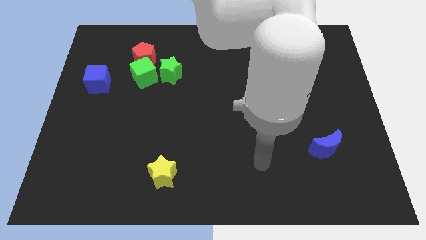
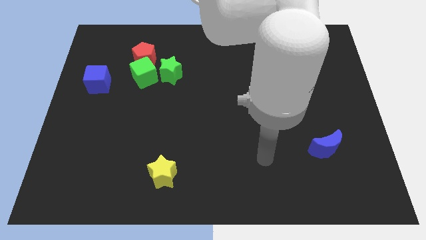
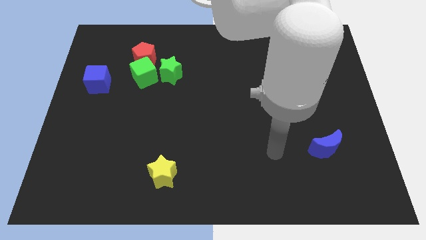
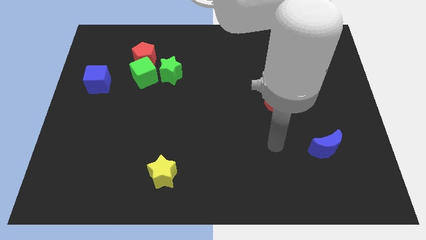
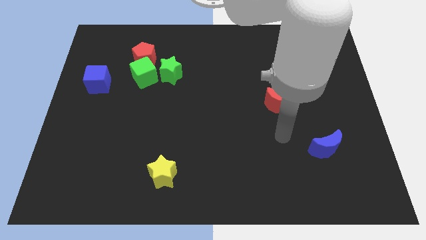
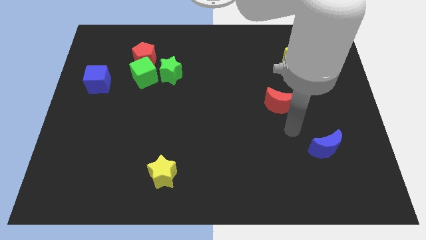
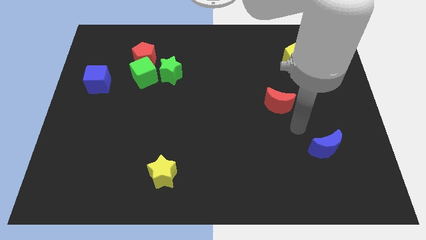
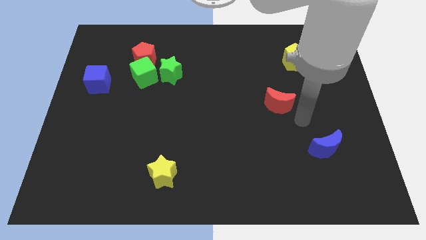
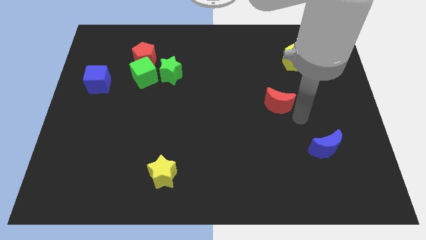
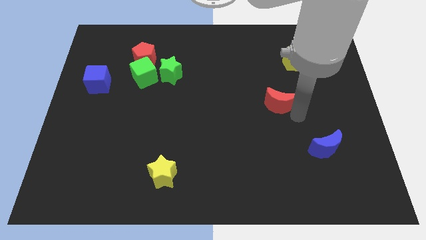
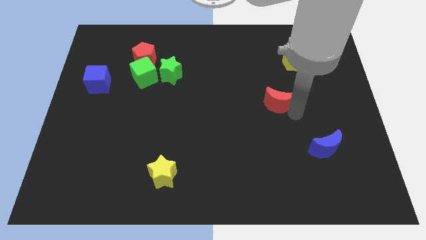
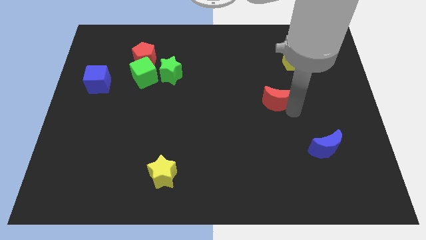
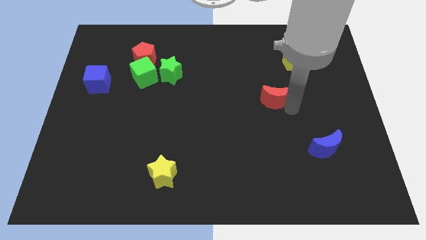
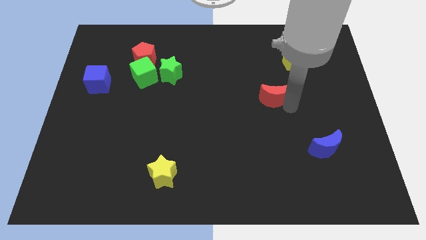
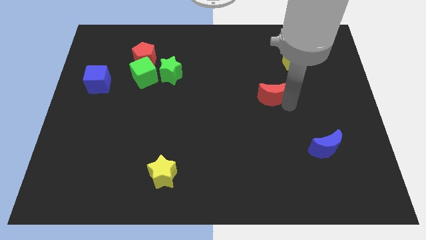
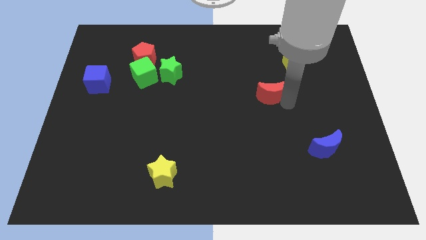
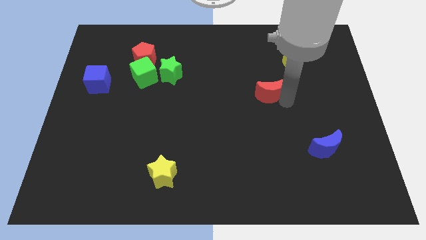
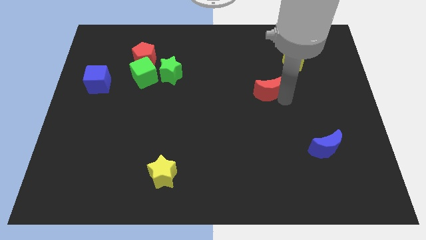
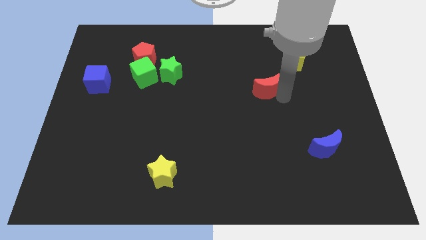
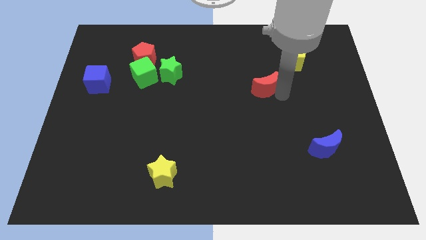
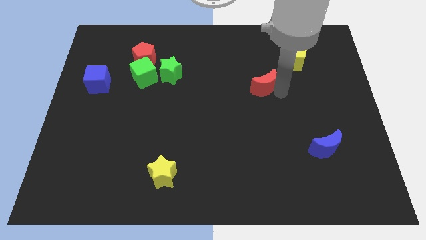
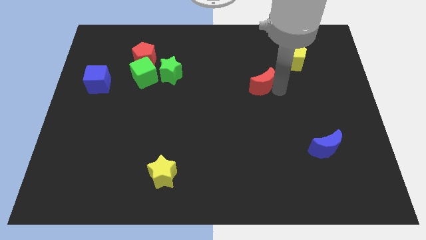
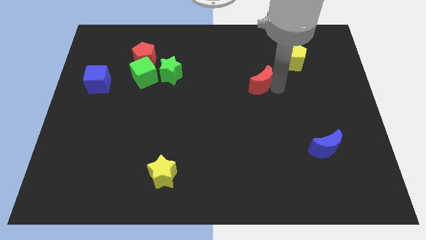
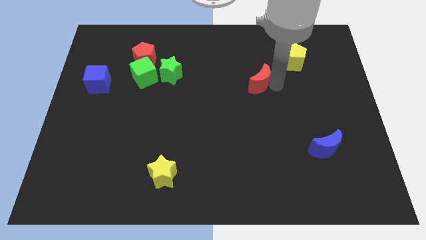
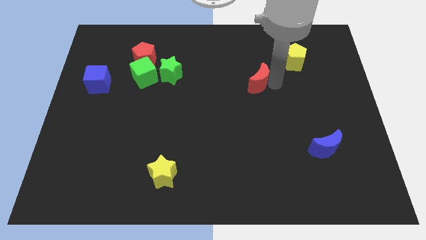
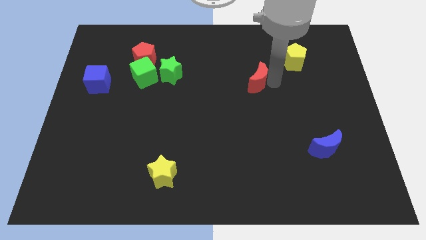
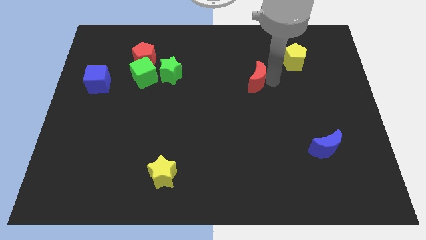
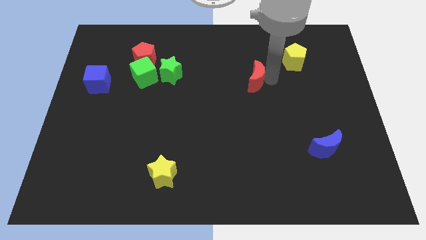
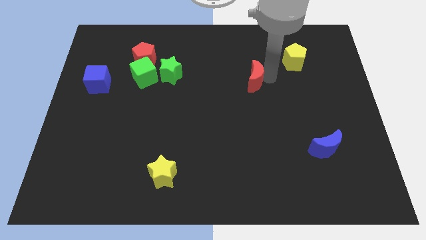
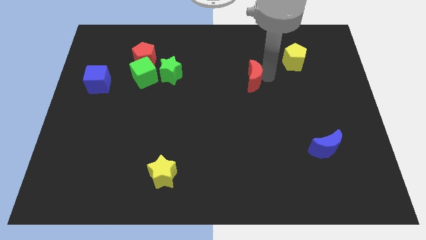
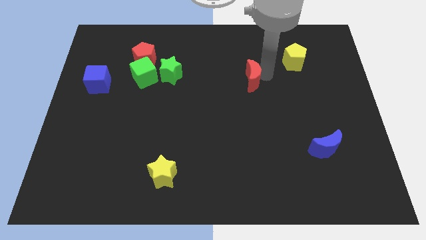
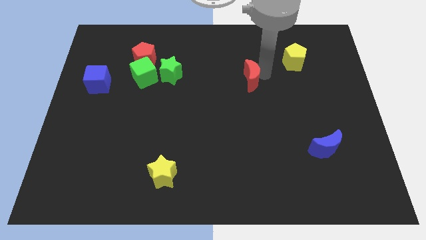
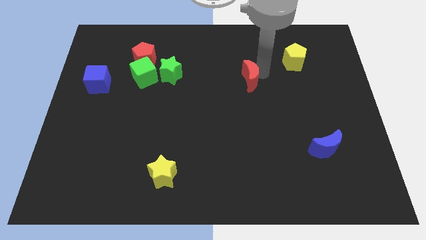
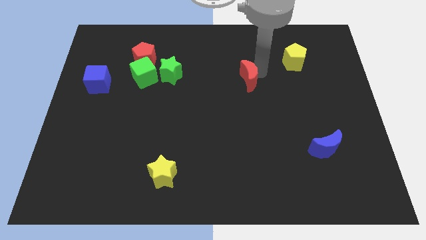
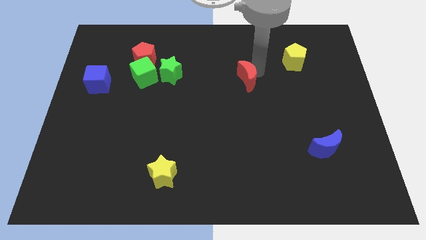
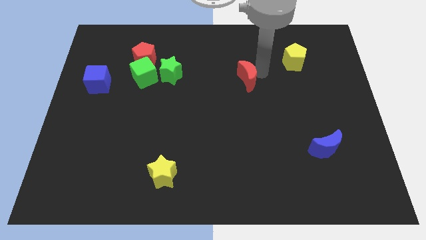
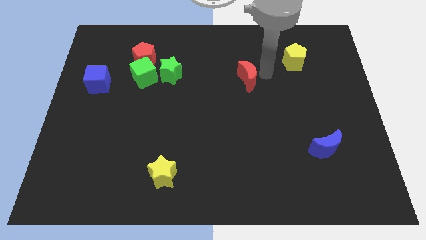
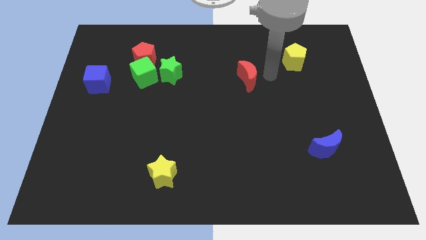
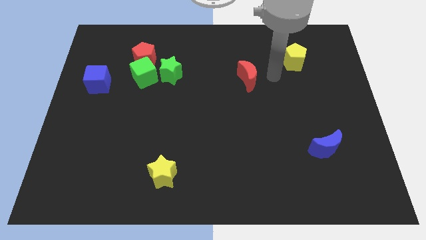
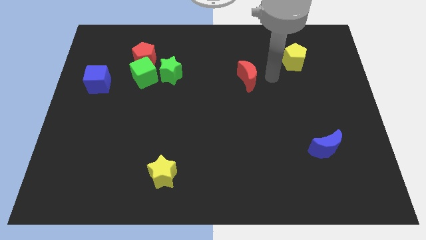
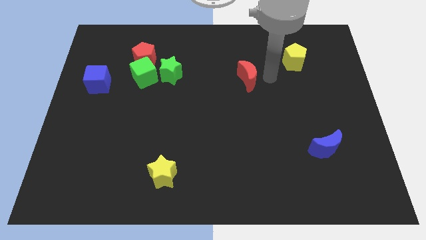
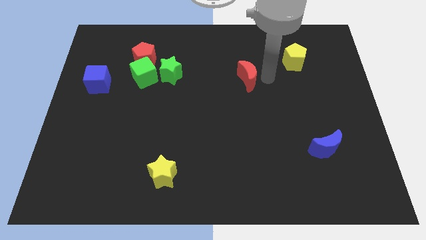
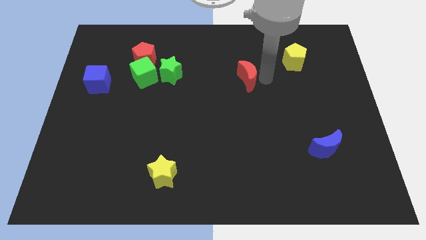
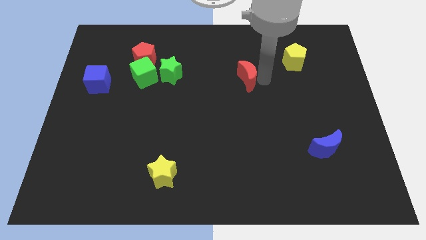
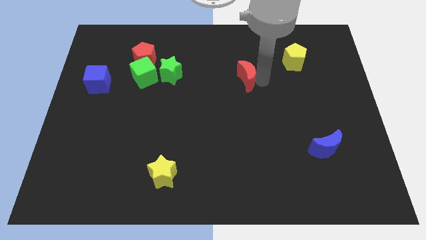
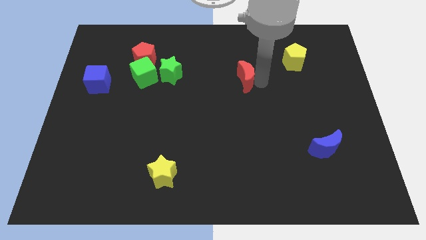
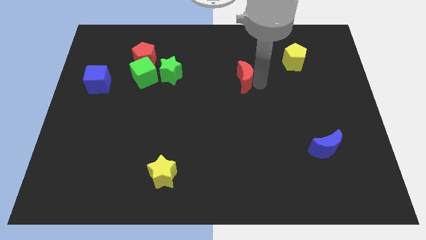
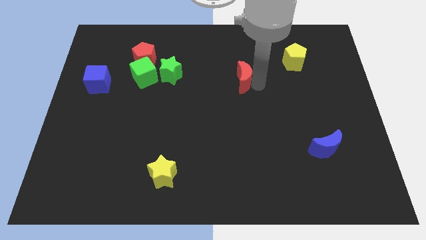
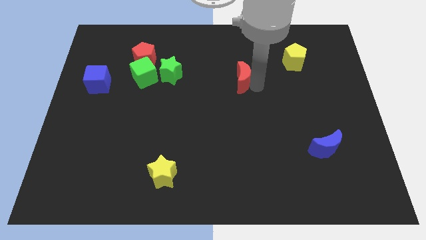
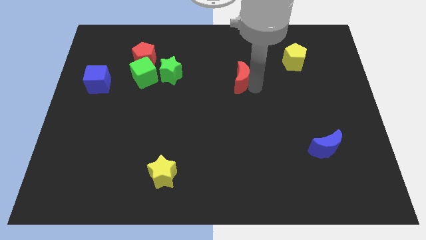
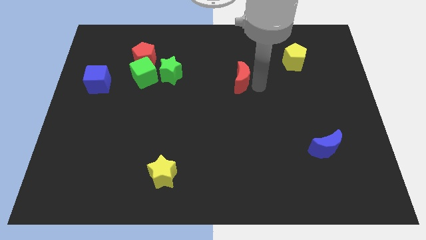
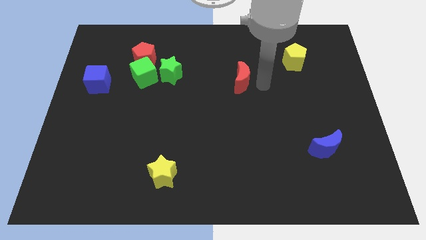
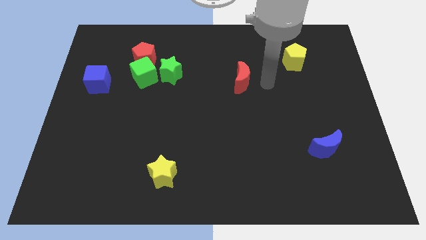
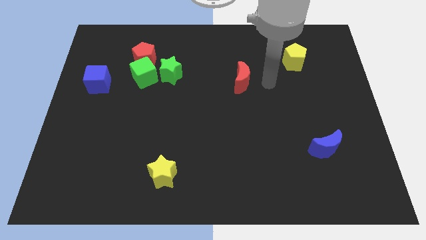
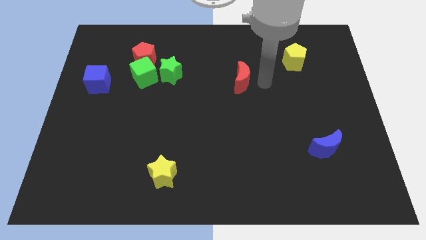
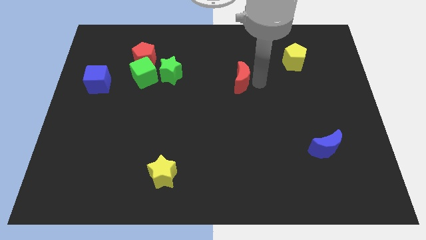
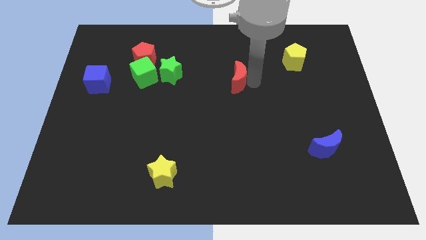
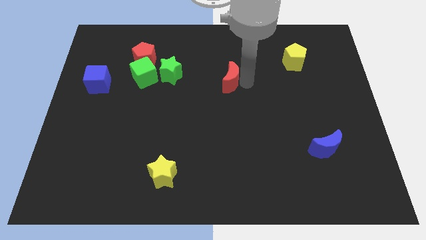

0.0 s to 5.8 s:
push the red moon just right of the green star

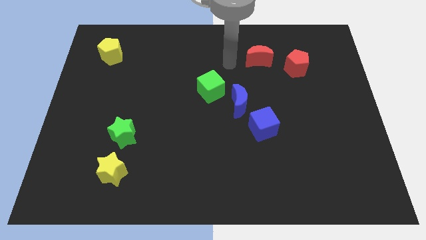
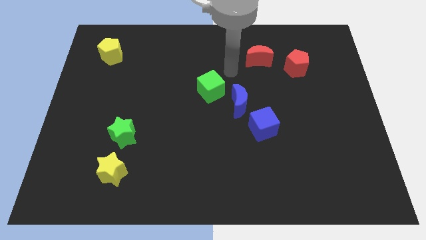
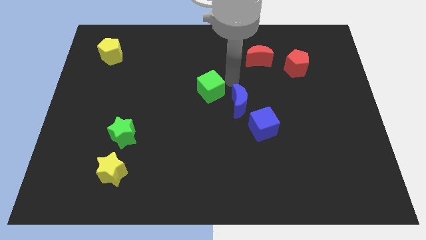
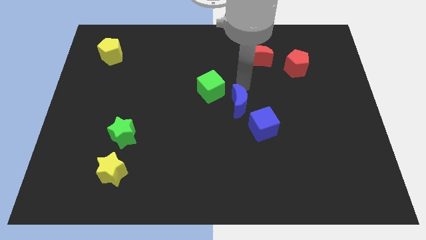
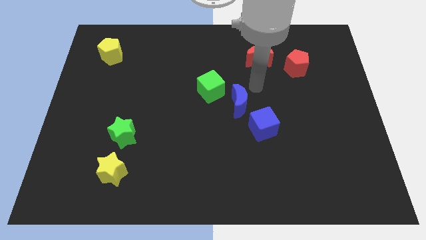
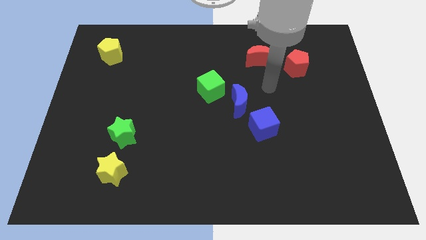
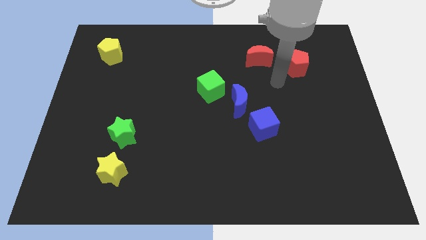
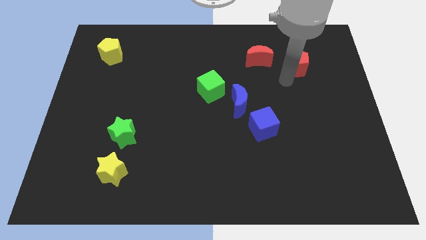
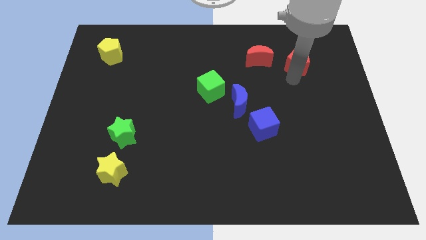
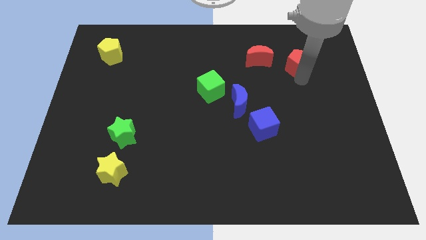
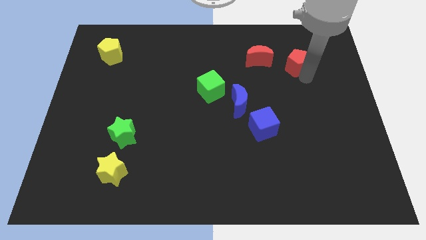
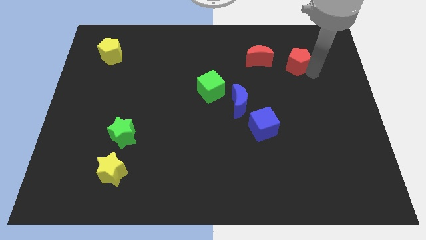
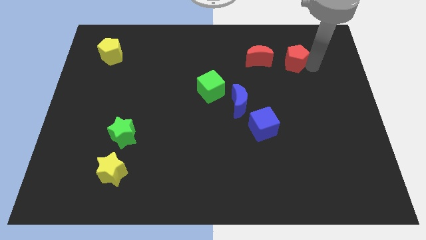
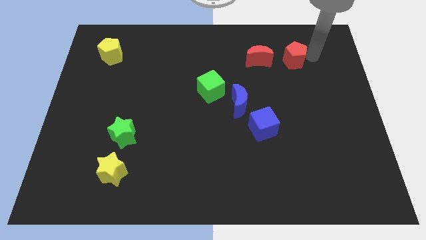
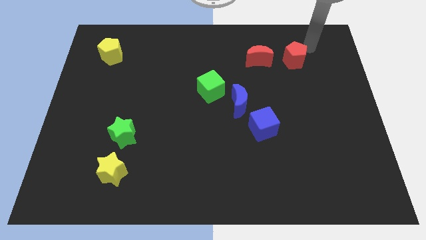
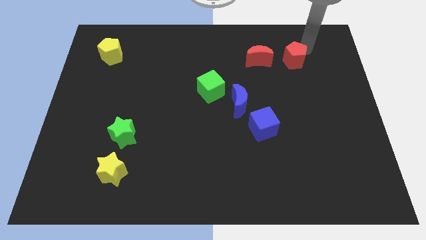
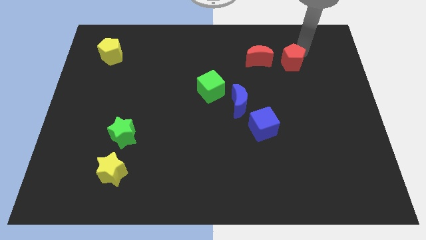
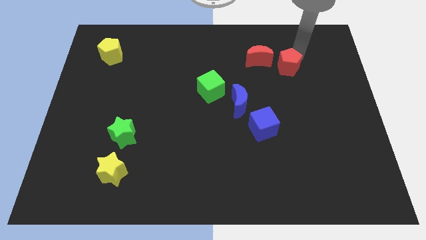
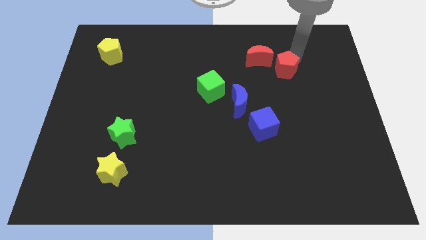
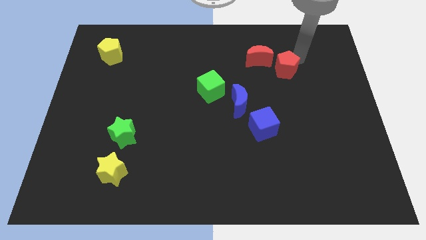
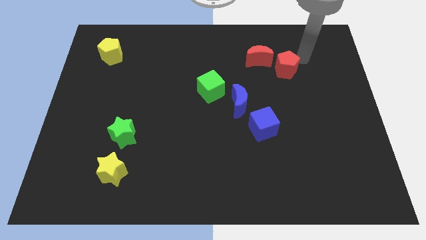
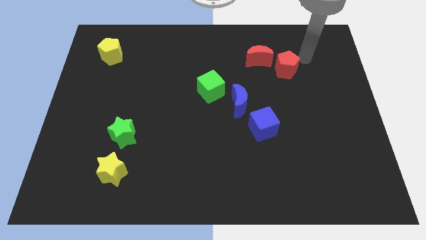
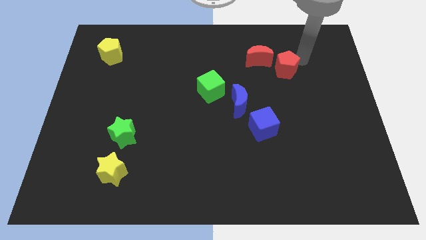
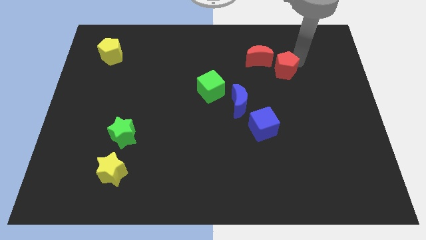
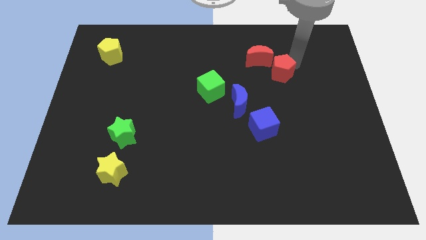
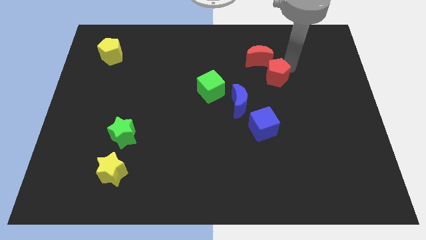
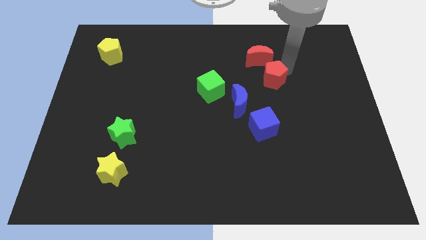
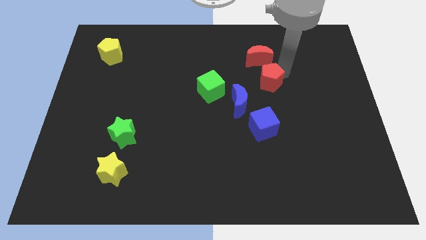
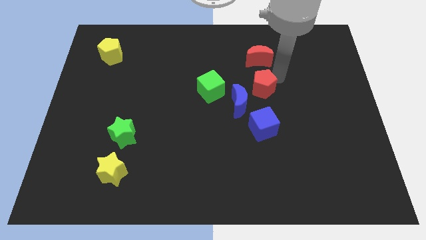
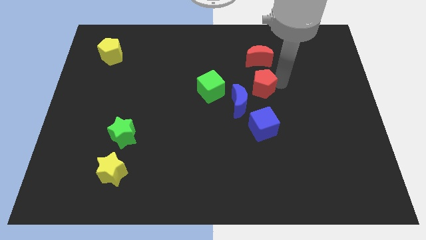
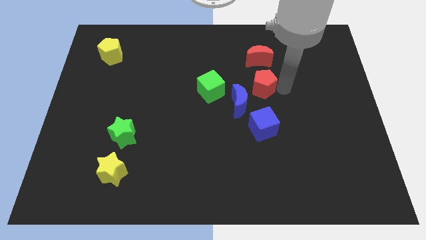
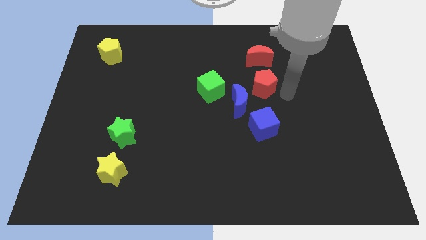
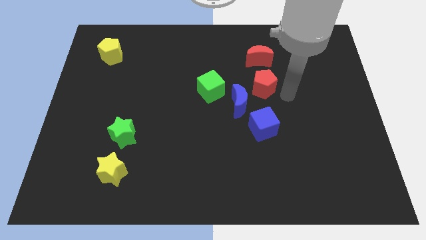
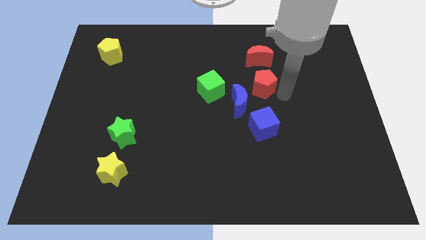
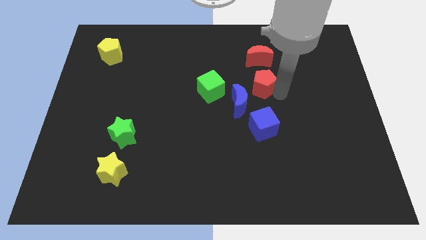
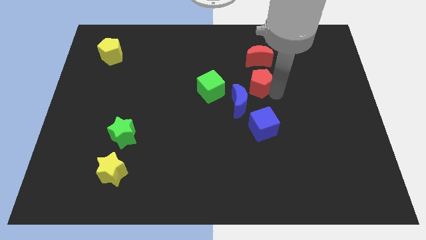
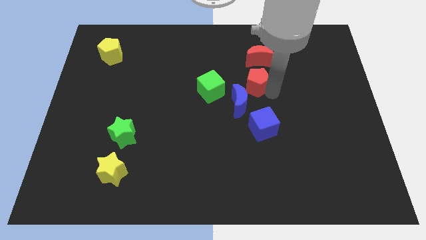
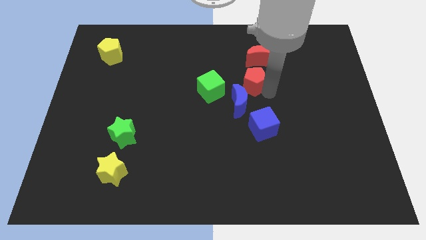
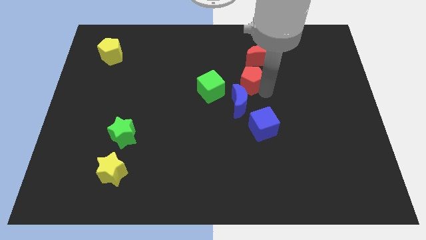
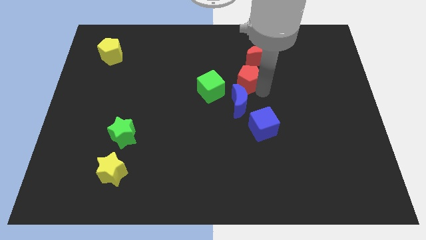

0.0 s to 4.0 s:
slide the red pentagon to the top right of the green cube
